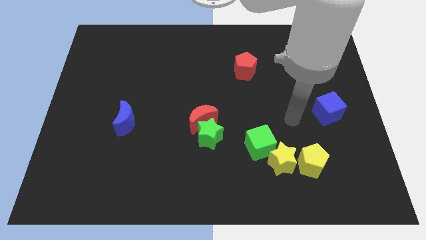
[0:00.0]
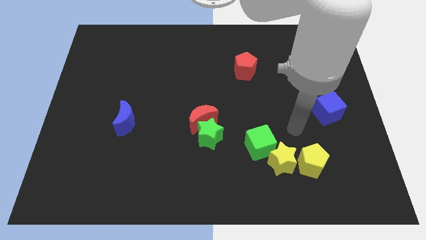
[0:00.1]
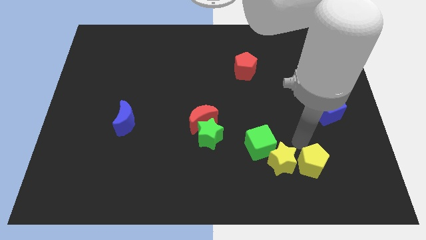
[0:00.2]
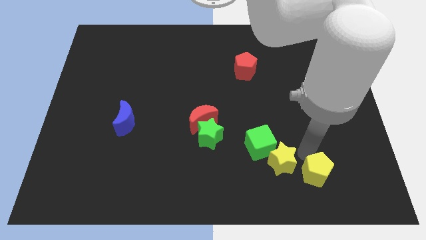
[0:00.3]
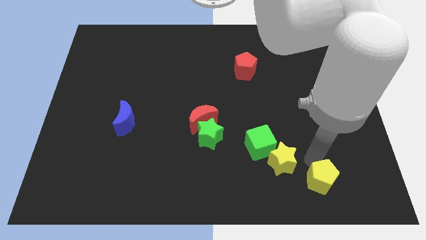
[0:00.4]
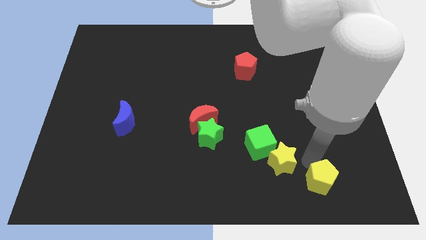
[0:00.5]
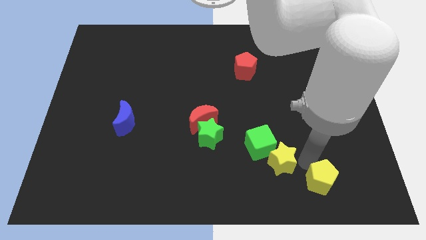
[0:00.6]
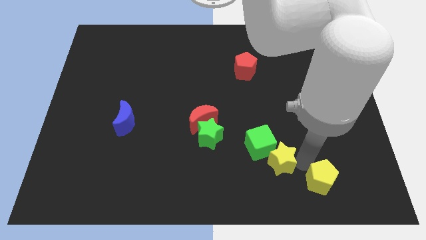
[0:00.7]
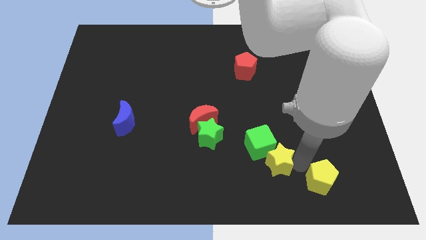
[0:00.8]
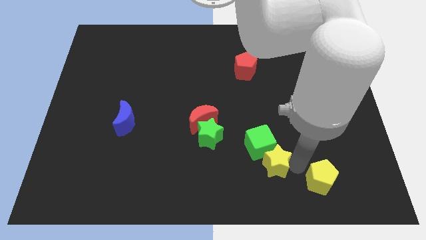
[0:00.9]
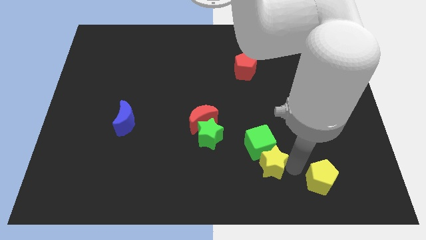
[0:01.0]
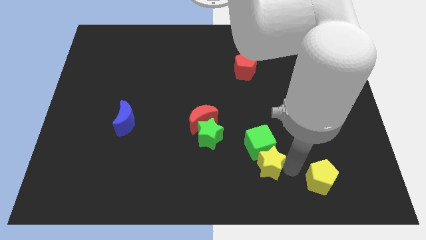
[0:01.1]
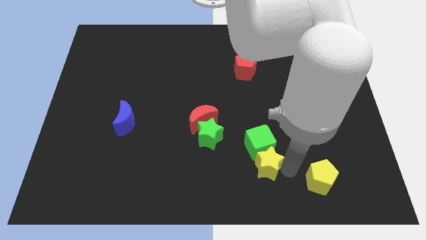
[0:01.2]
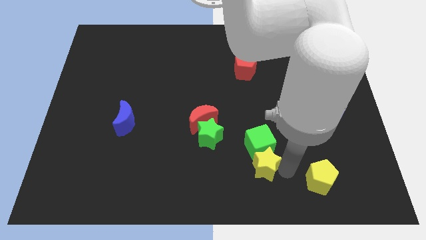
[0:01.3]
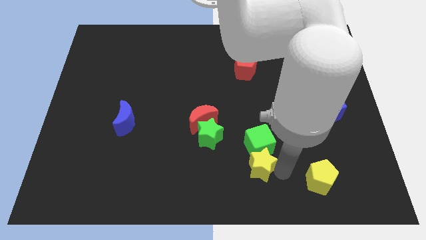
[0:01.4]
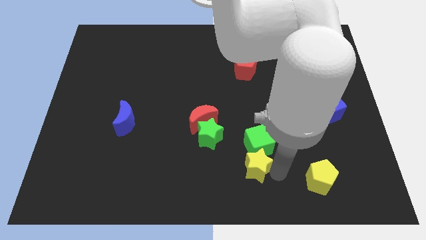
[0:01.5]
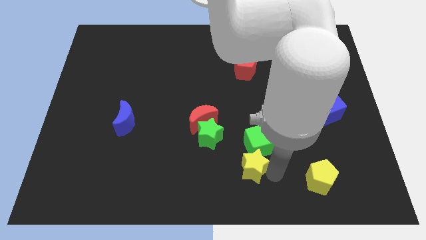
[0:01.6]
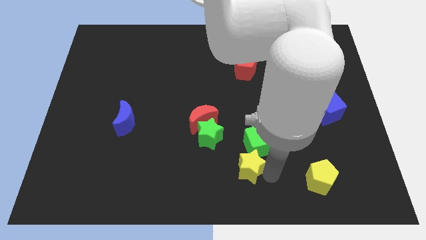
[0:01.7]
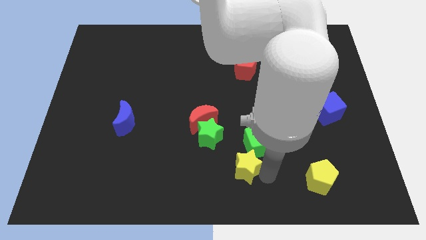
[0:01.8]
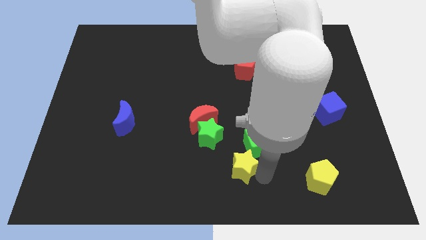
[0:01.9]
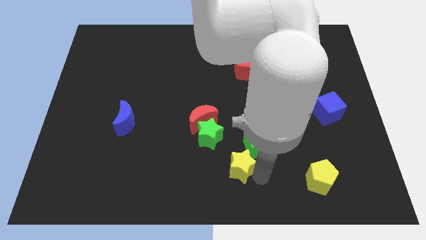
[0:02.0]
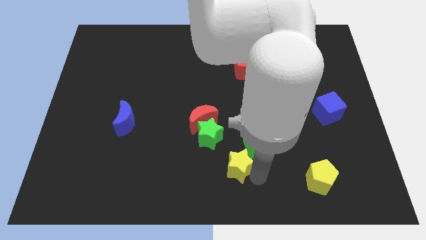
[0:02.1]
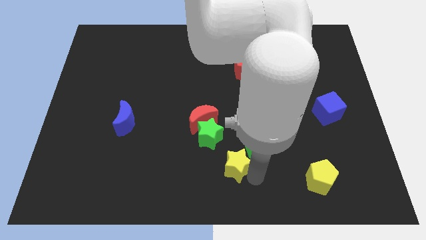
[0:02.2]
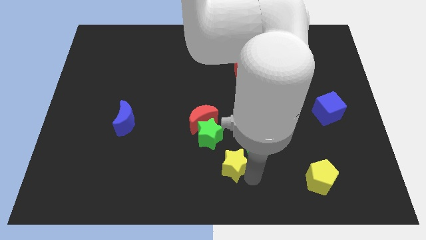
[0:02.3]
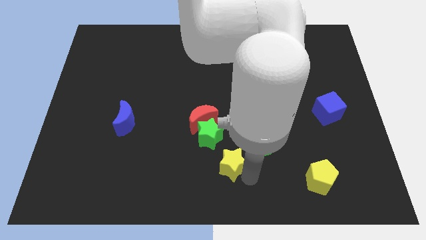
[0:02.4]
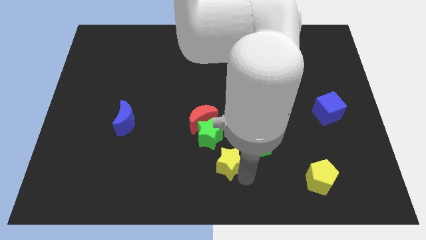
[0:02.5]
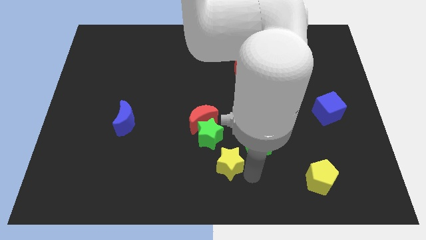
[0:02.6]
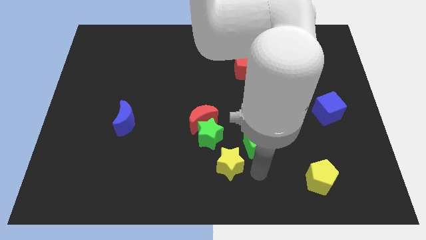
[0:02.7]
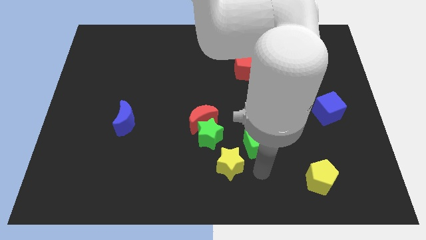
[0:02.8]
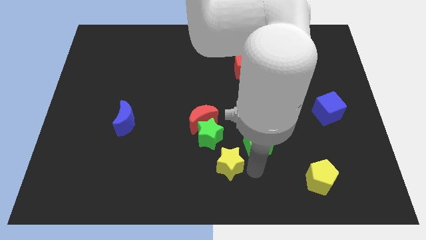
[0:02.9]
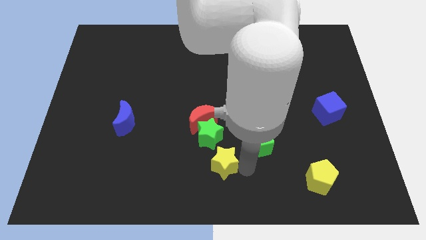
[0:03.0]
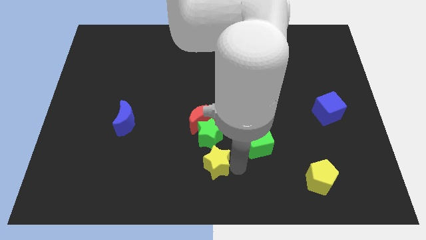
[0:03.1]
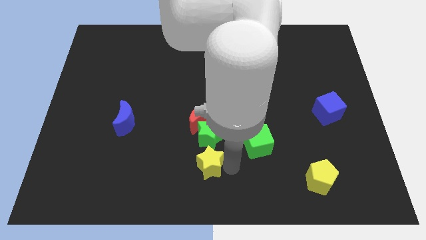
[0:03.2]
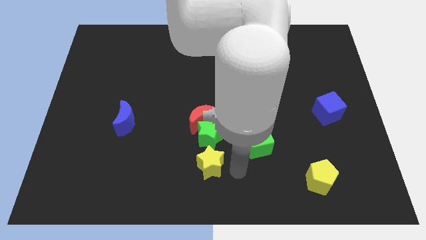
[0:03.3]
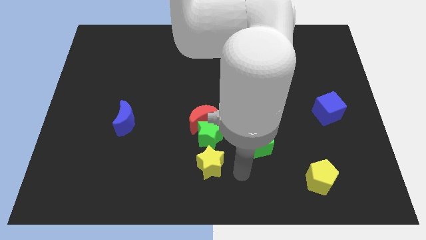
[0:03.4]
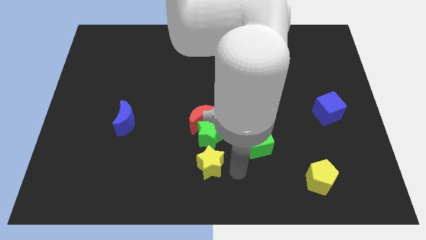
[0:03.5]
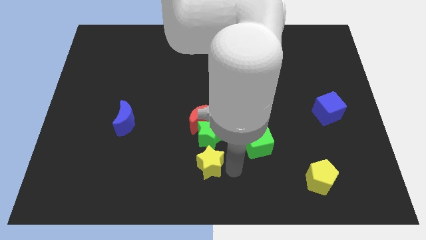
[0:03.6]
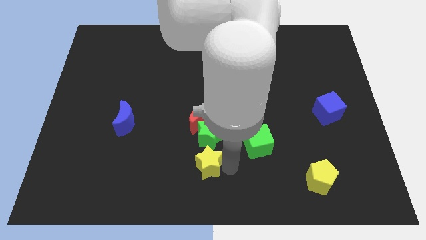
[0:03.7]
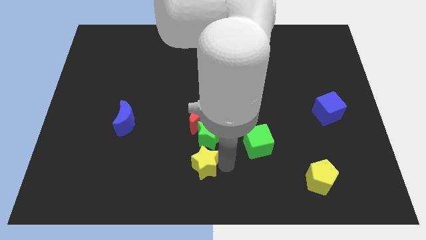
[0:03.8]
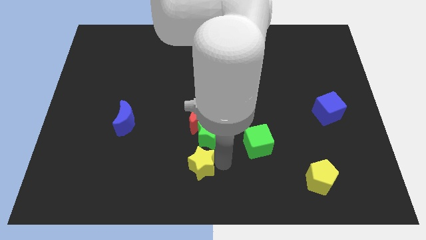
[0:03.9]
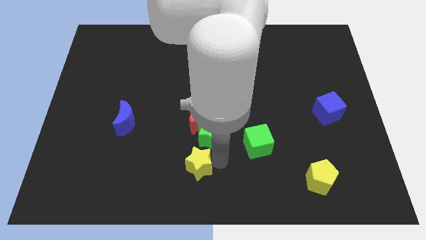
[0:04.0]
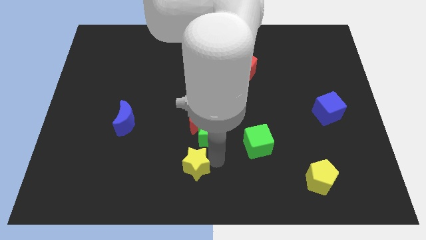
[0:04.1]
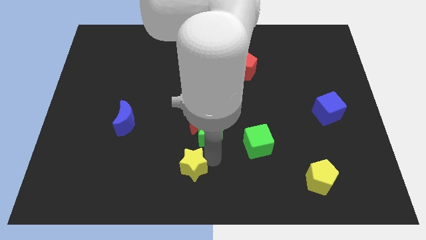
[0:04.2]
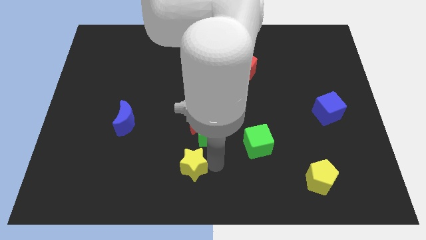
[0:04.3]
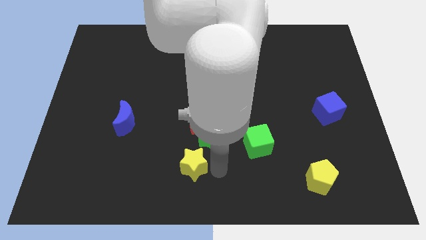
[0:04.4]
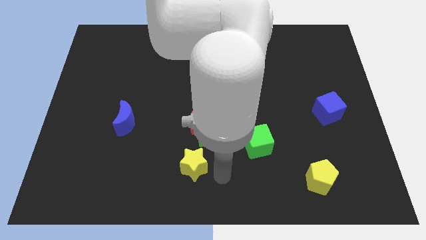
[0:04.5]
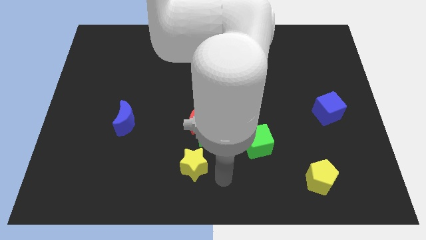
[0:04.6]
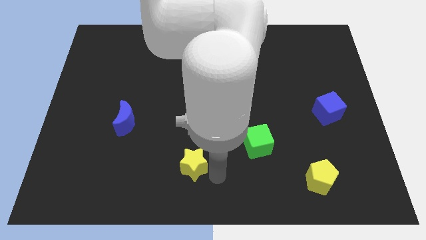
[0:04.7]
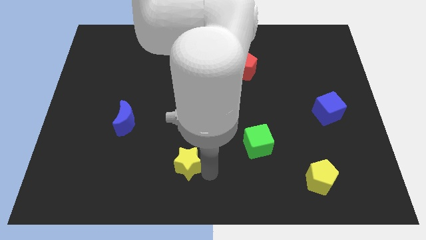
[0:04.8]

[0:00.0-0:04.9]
move the yellow star to the left

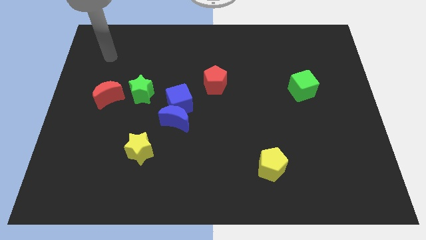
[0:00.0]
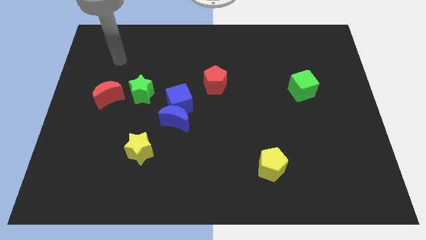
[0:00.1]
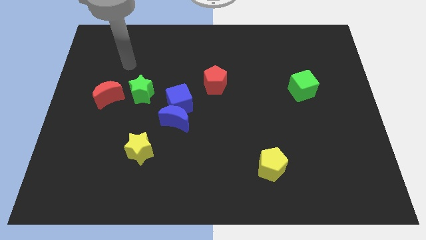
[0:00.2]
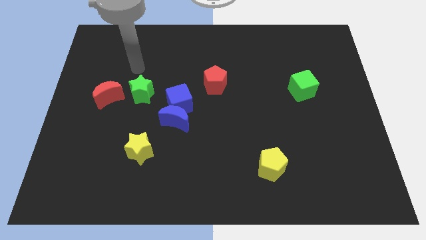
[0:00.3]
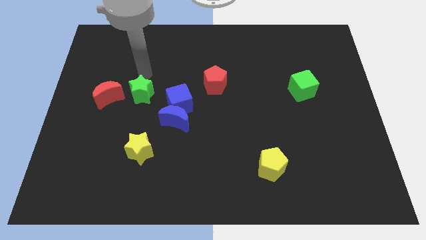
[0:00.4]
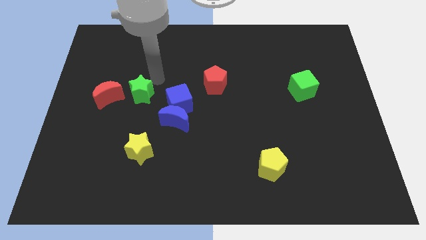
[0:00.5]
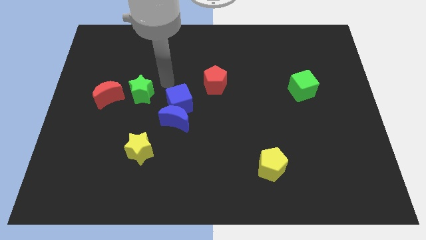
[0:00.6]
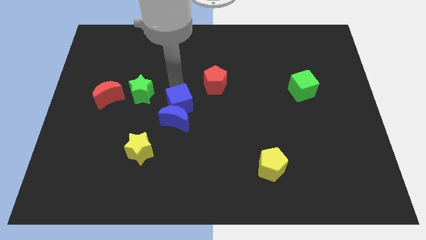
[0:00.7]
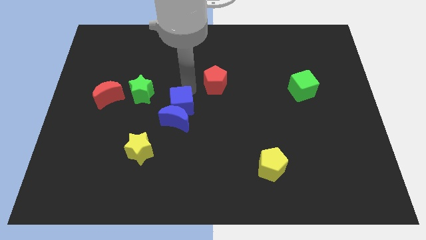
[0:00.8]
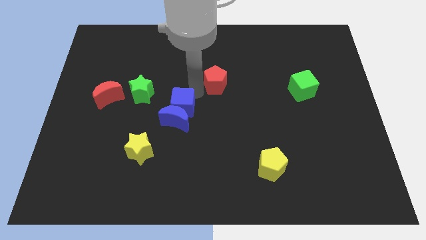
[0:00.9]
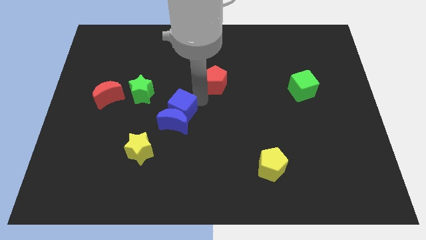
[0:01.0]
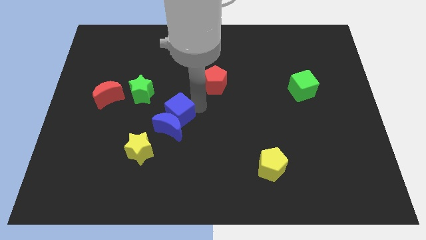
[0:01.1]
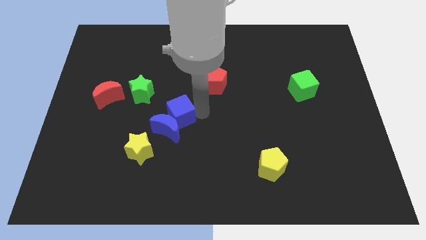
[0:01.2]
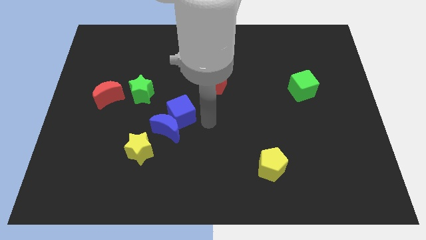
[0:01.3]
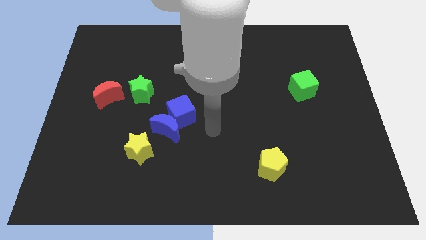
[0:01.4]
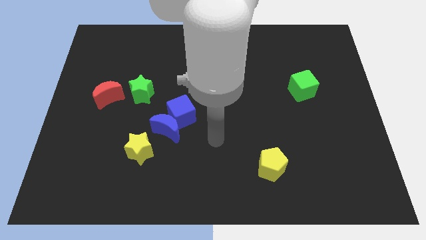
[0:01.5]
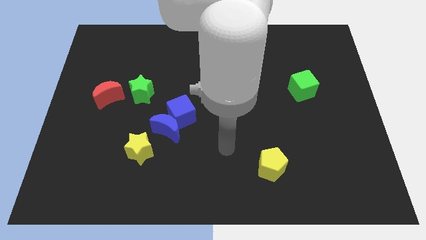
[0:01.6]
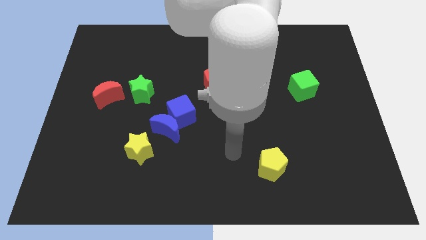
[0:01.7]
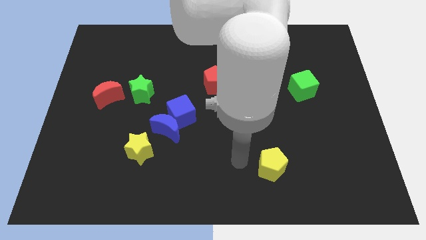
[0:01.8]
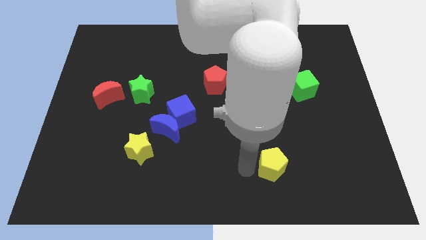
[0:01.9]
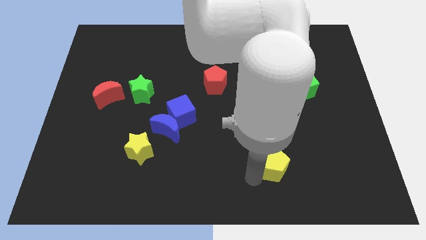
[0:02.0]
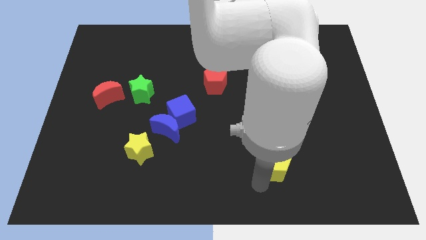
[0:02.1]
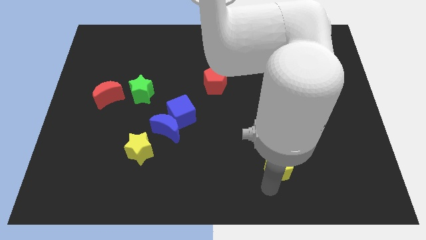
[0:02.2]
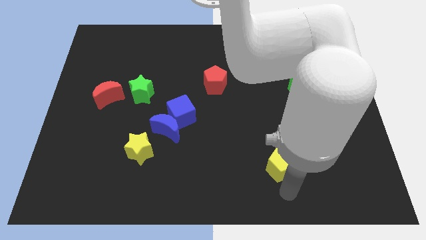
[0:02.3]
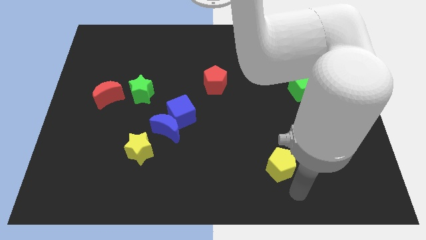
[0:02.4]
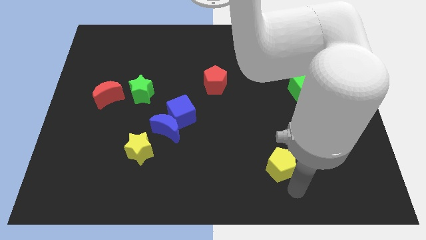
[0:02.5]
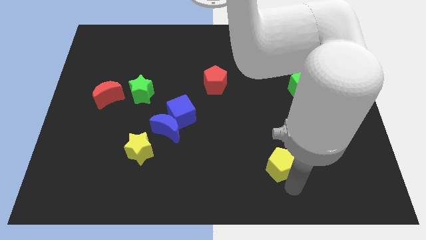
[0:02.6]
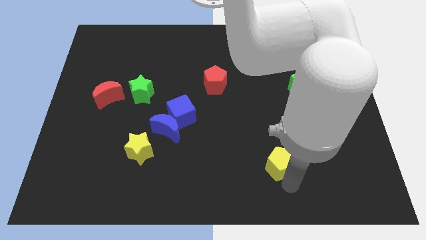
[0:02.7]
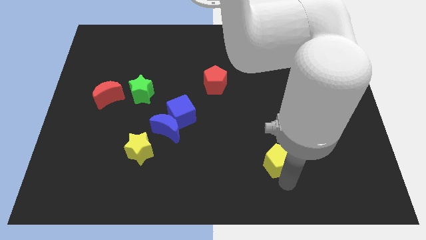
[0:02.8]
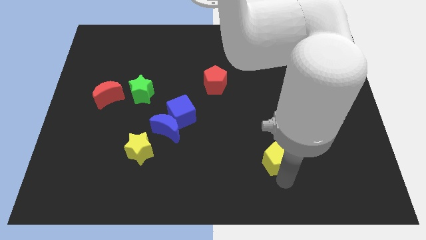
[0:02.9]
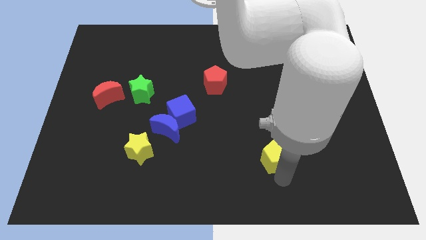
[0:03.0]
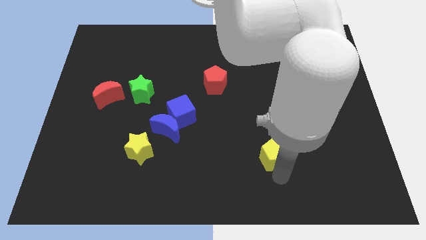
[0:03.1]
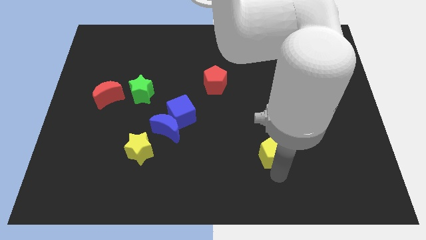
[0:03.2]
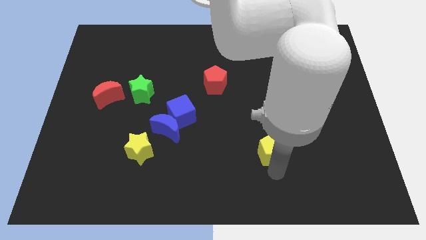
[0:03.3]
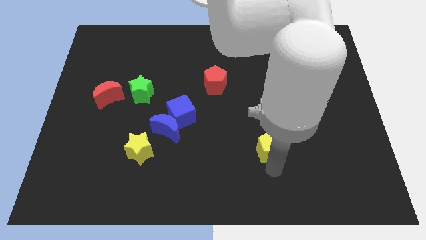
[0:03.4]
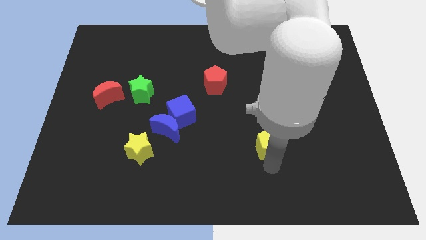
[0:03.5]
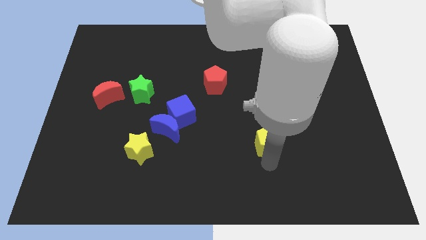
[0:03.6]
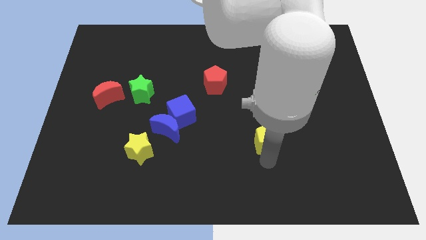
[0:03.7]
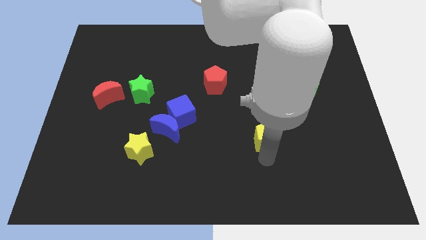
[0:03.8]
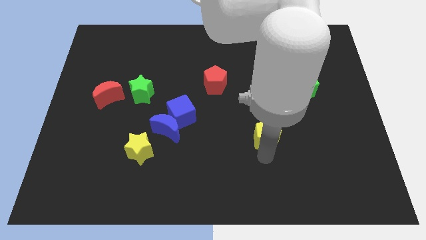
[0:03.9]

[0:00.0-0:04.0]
slightly move the yellow pentagon upwards
